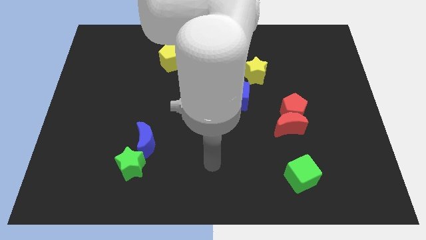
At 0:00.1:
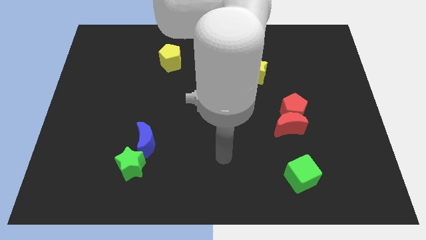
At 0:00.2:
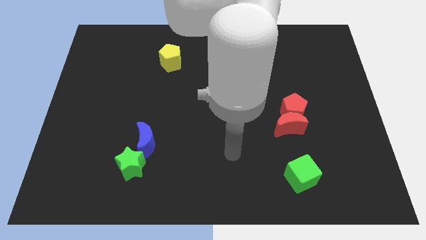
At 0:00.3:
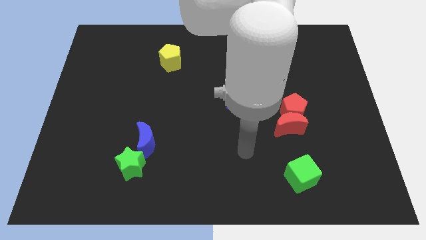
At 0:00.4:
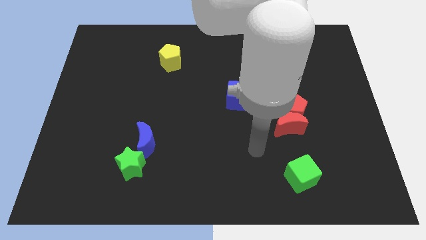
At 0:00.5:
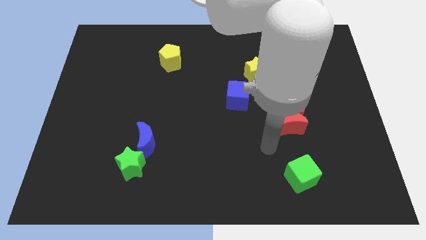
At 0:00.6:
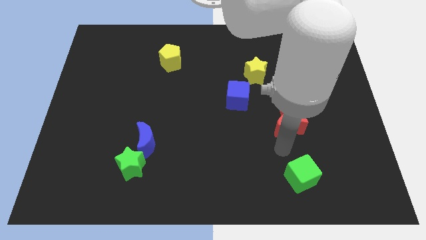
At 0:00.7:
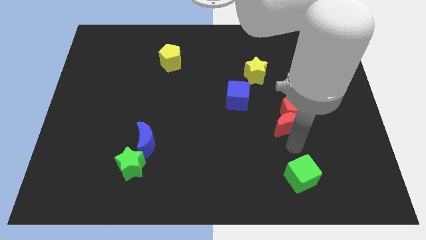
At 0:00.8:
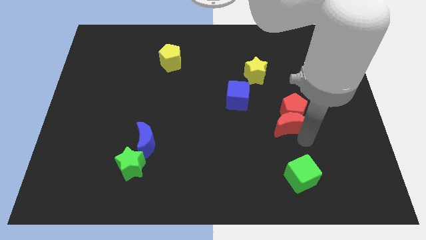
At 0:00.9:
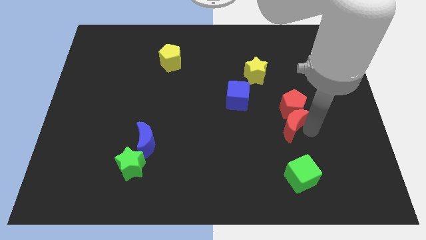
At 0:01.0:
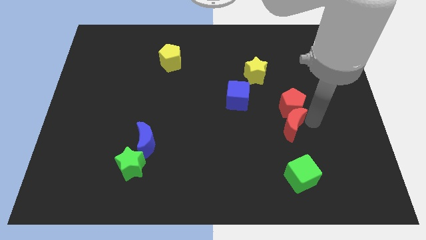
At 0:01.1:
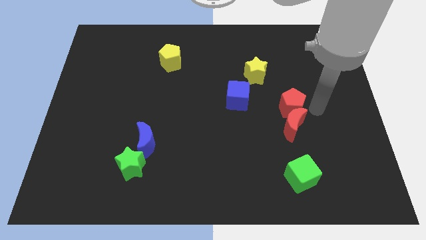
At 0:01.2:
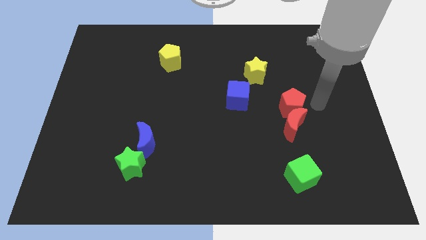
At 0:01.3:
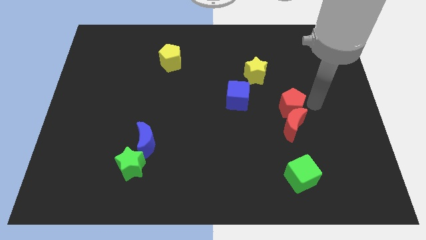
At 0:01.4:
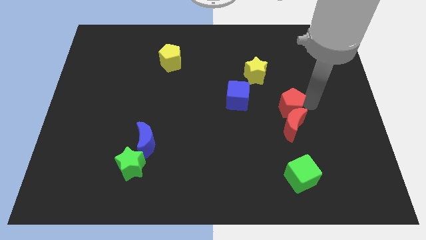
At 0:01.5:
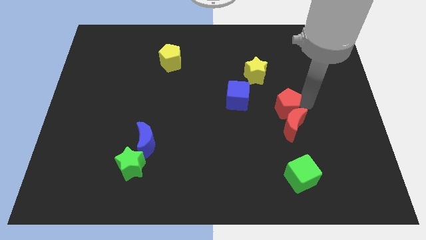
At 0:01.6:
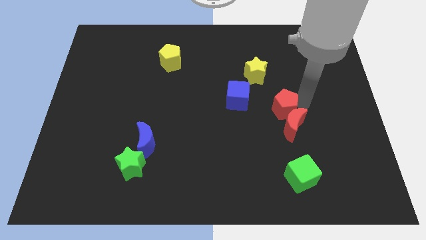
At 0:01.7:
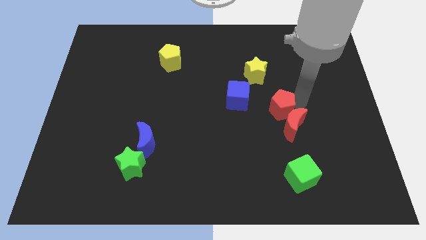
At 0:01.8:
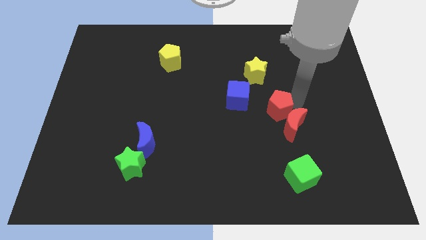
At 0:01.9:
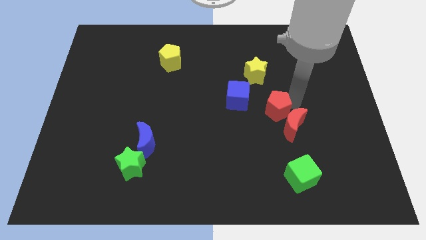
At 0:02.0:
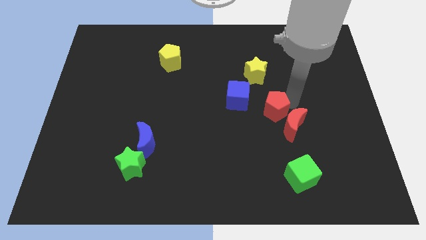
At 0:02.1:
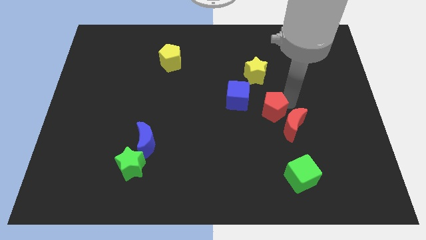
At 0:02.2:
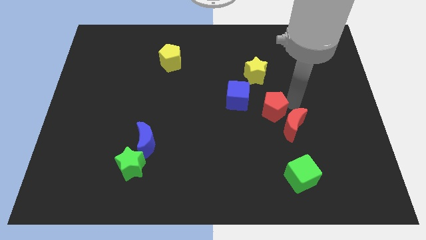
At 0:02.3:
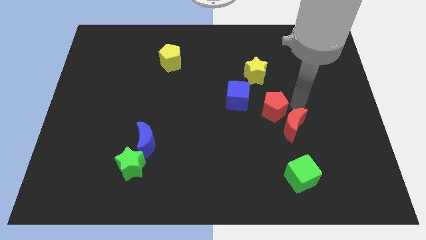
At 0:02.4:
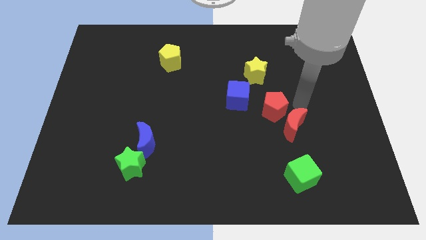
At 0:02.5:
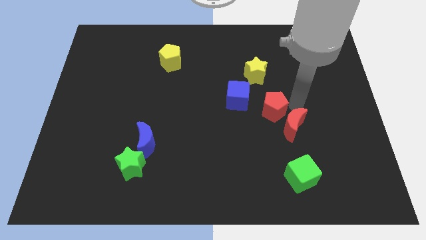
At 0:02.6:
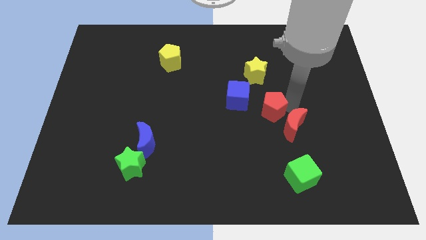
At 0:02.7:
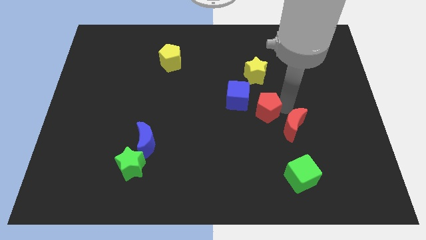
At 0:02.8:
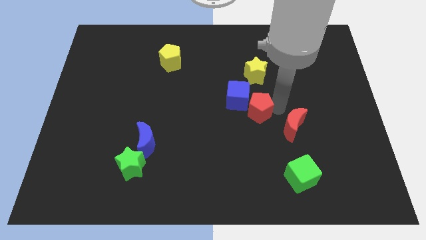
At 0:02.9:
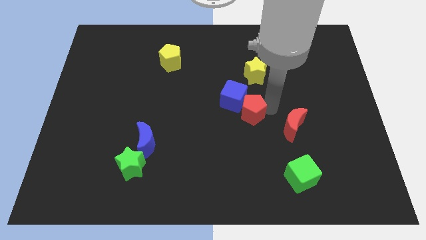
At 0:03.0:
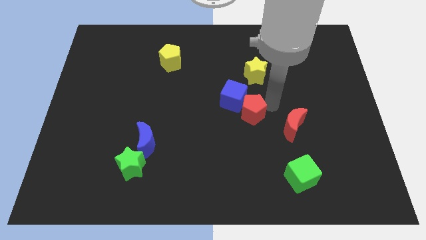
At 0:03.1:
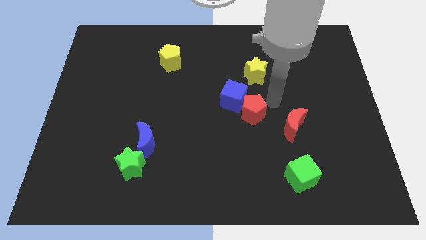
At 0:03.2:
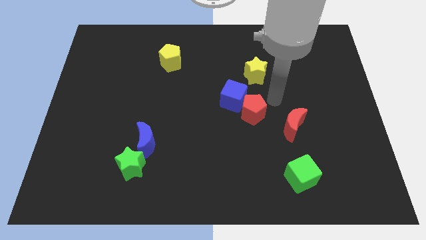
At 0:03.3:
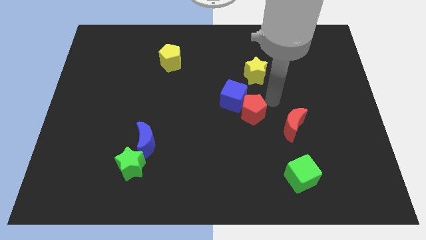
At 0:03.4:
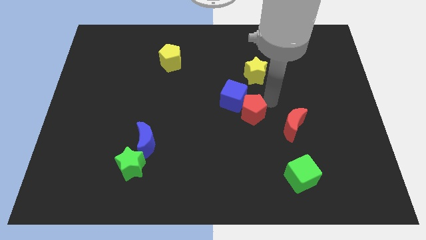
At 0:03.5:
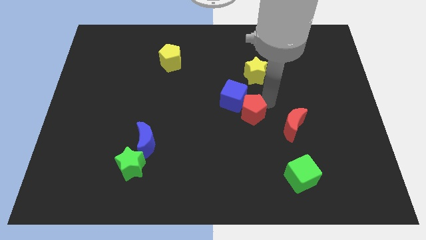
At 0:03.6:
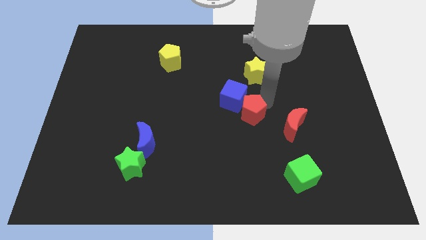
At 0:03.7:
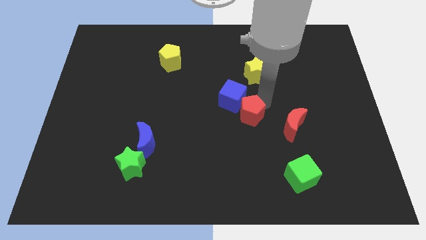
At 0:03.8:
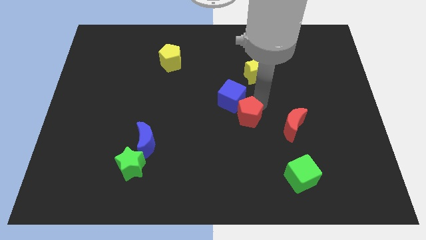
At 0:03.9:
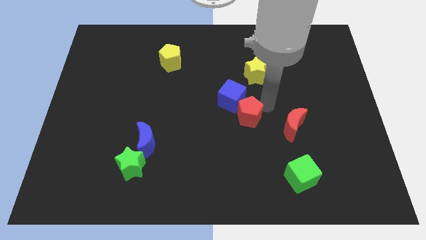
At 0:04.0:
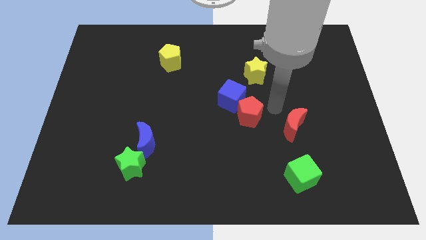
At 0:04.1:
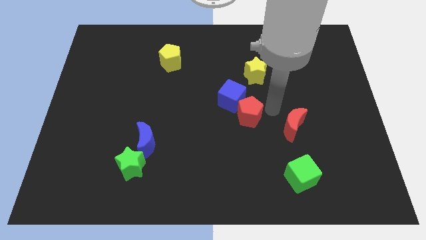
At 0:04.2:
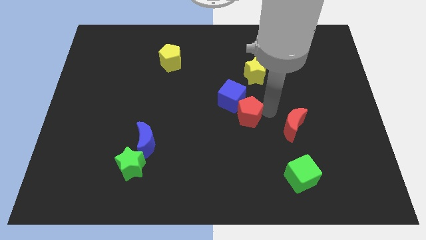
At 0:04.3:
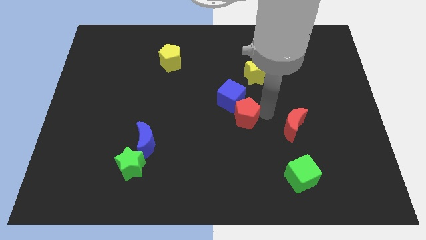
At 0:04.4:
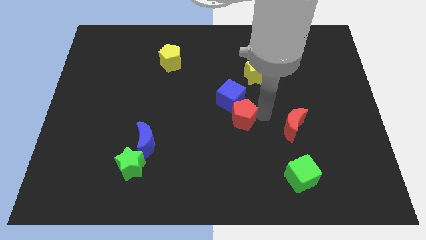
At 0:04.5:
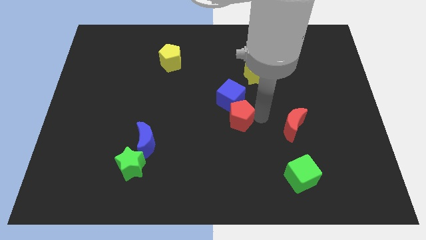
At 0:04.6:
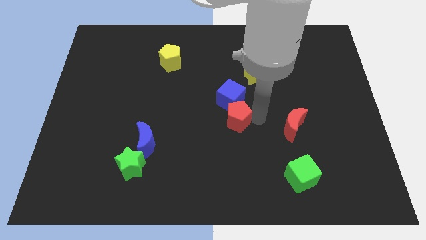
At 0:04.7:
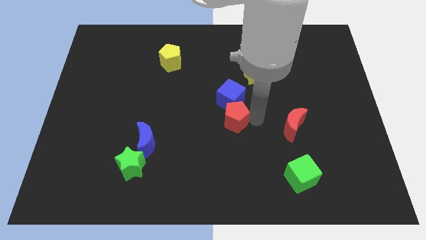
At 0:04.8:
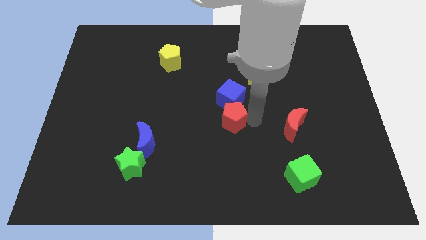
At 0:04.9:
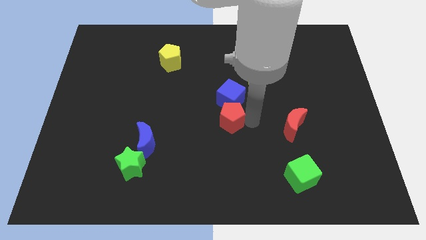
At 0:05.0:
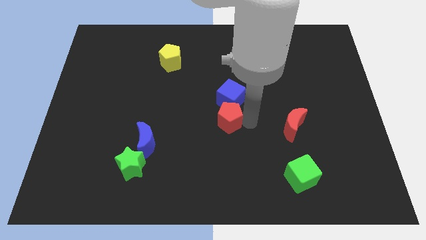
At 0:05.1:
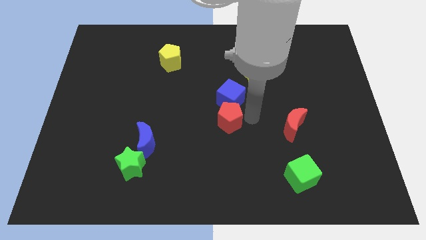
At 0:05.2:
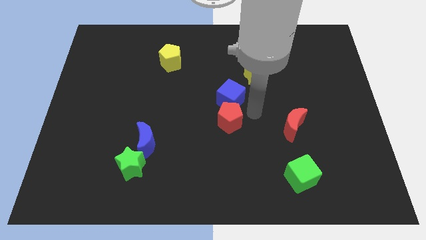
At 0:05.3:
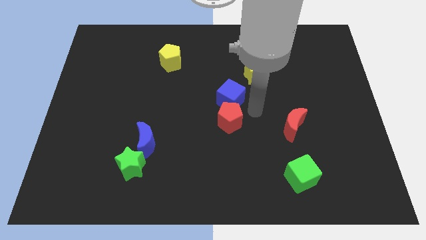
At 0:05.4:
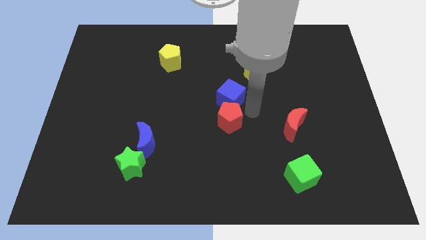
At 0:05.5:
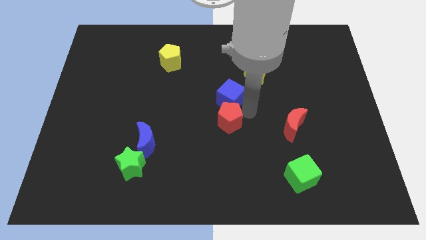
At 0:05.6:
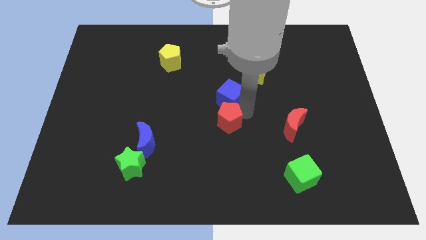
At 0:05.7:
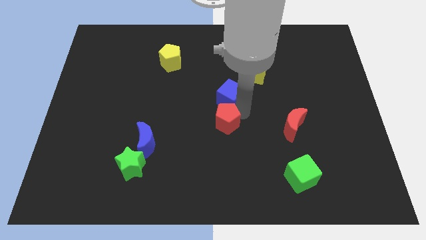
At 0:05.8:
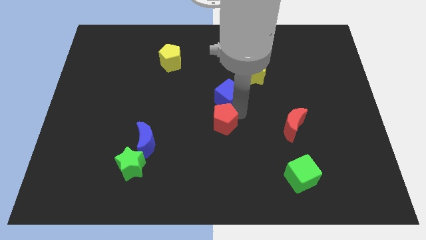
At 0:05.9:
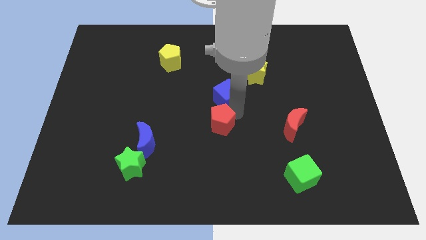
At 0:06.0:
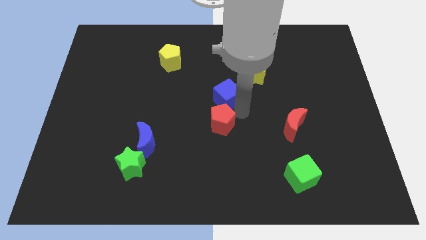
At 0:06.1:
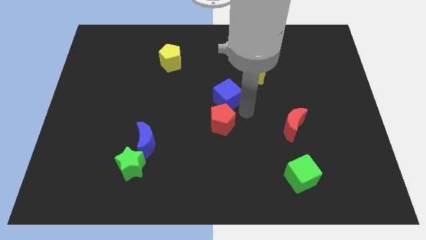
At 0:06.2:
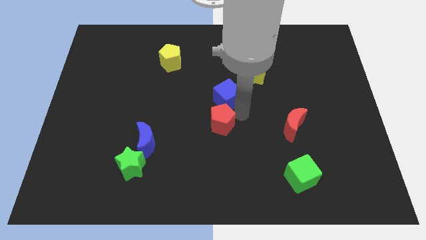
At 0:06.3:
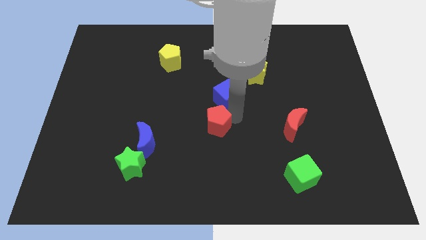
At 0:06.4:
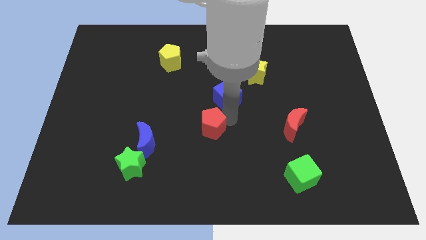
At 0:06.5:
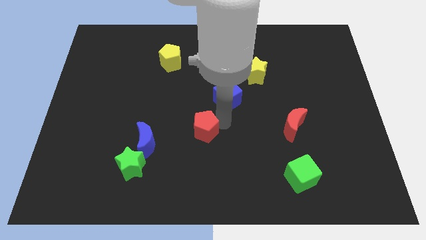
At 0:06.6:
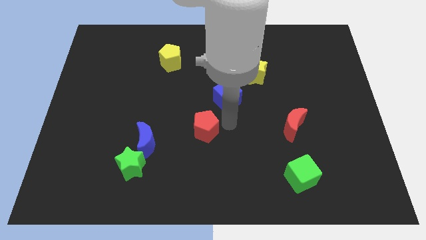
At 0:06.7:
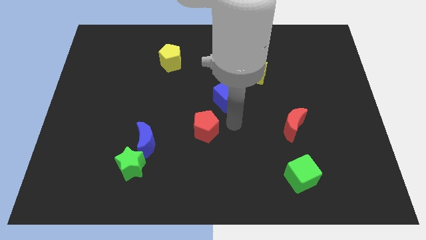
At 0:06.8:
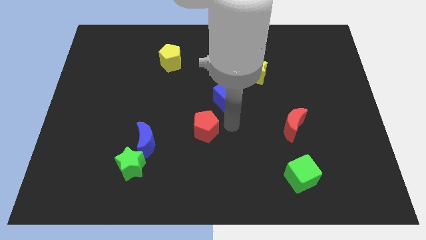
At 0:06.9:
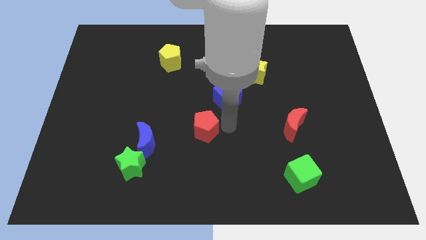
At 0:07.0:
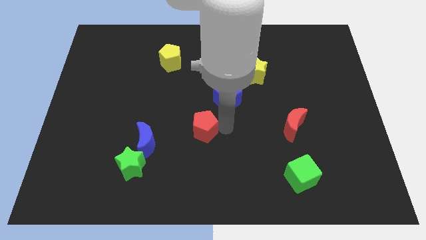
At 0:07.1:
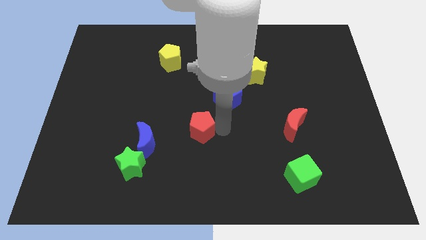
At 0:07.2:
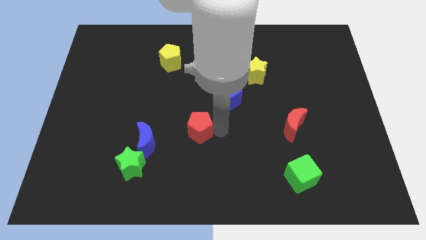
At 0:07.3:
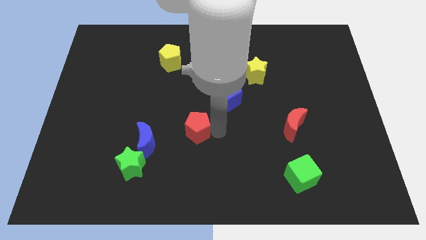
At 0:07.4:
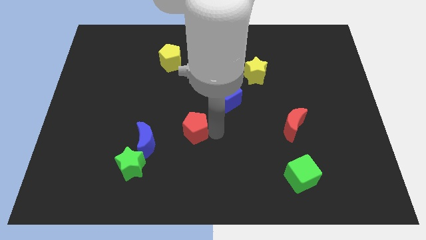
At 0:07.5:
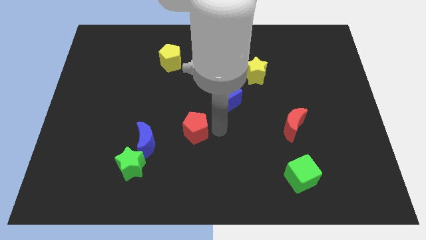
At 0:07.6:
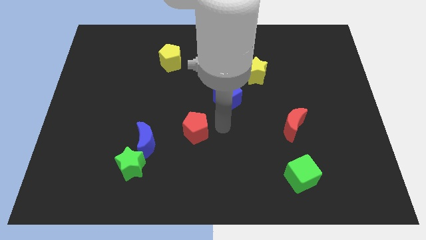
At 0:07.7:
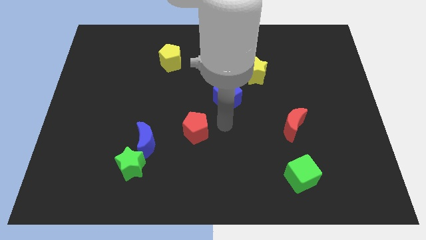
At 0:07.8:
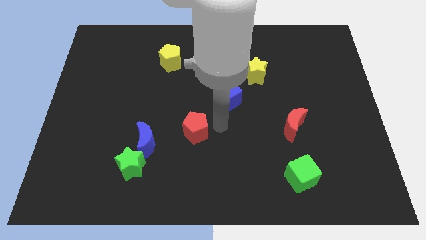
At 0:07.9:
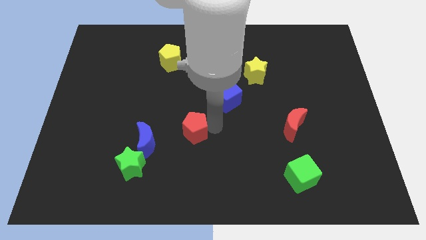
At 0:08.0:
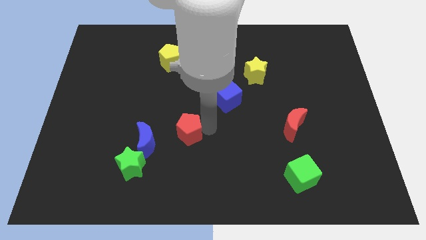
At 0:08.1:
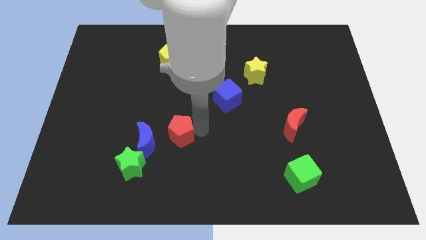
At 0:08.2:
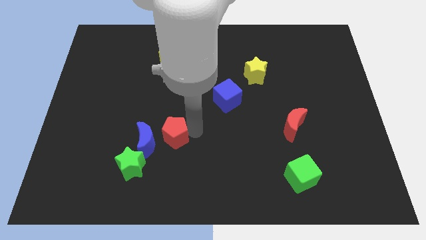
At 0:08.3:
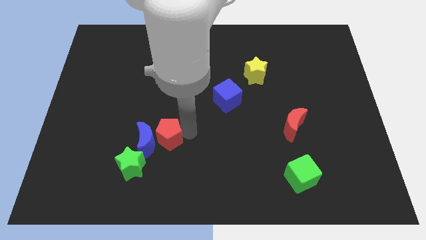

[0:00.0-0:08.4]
put the red pentagon next to the blue moon
